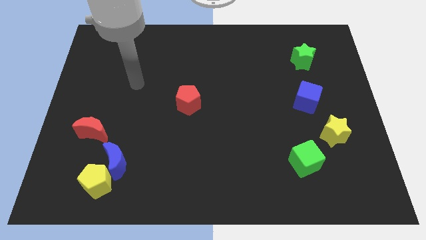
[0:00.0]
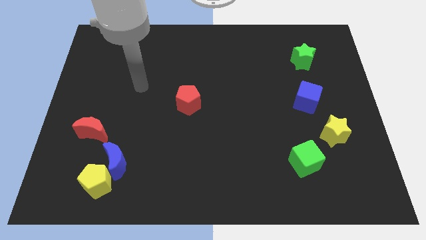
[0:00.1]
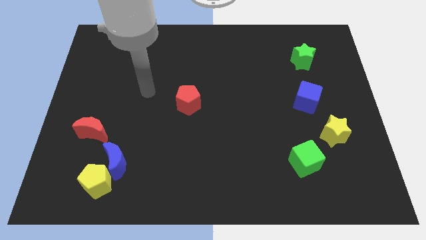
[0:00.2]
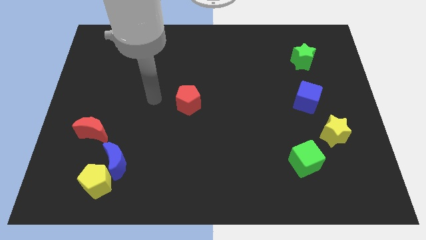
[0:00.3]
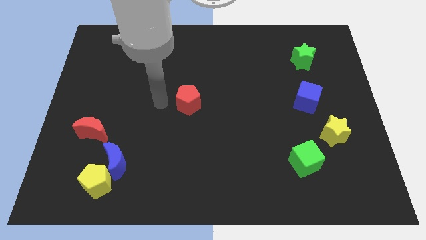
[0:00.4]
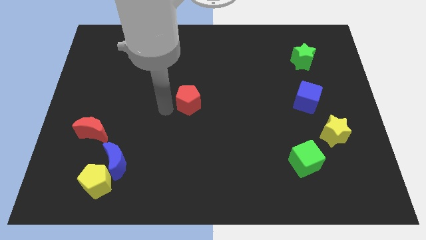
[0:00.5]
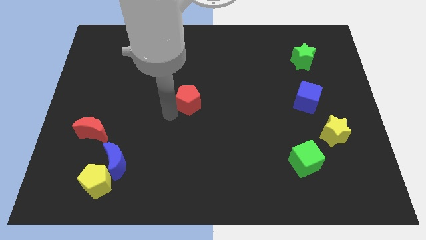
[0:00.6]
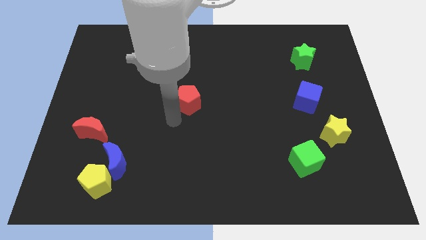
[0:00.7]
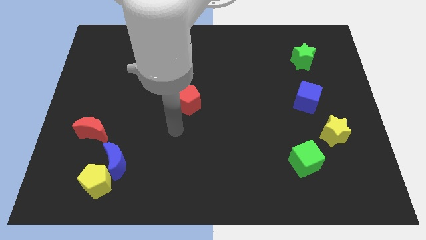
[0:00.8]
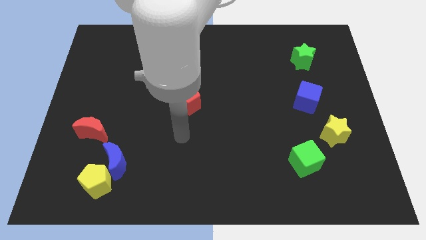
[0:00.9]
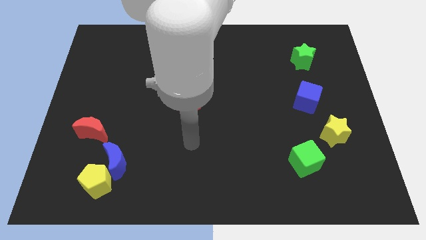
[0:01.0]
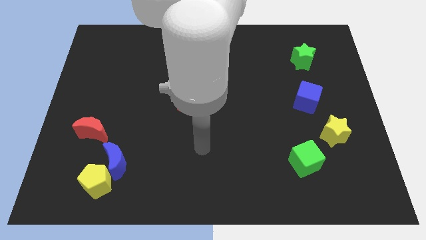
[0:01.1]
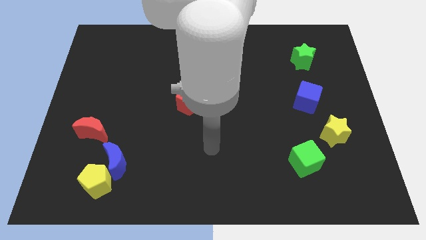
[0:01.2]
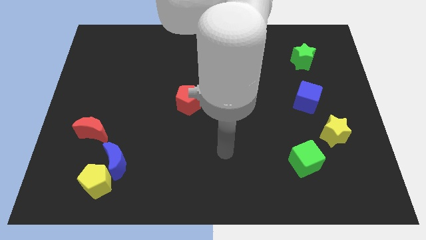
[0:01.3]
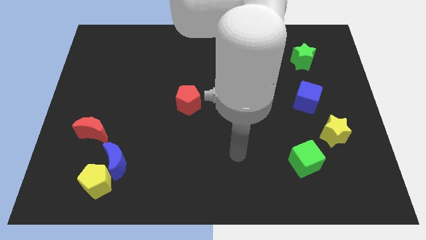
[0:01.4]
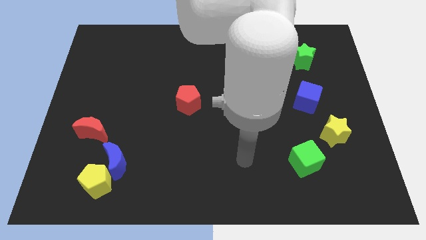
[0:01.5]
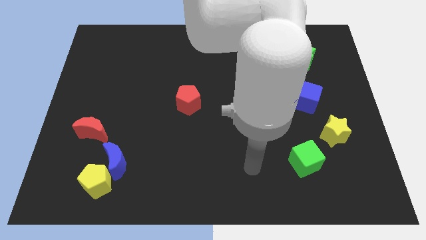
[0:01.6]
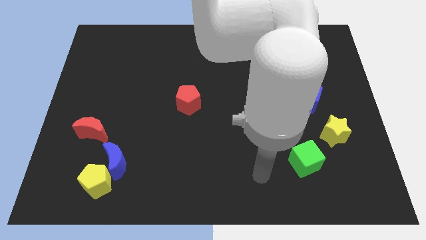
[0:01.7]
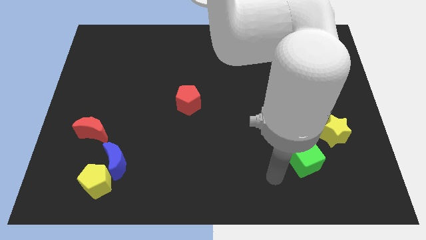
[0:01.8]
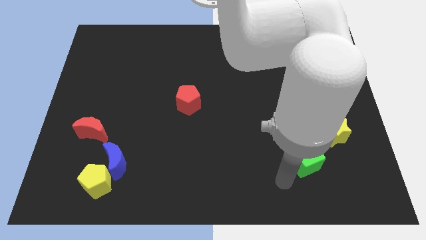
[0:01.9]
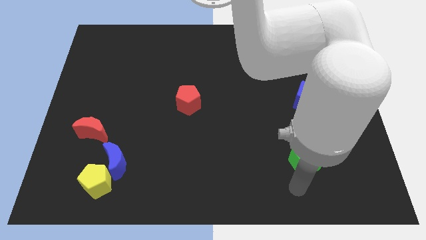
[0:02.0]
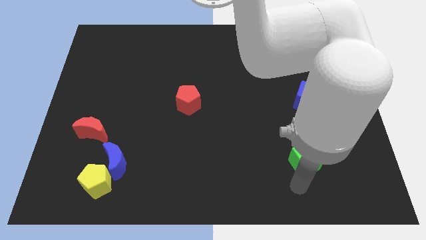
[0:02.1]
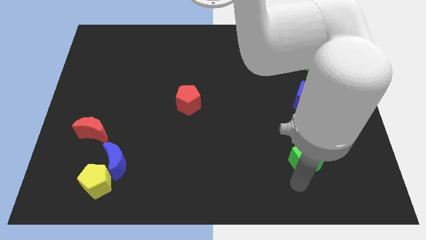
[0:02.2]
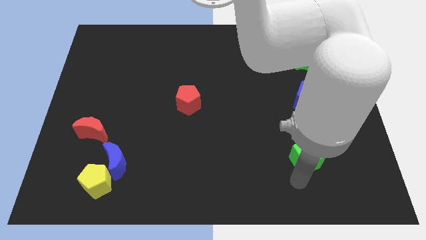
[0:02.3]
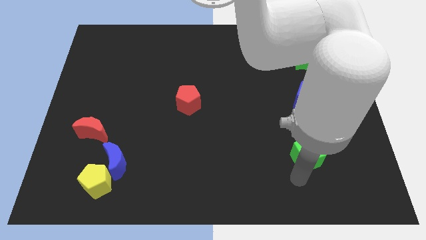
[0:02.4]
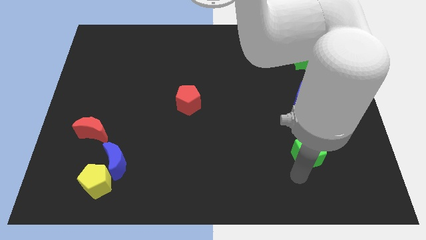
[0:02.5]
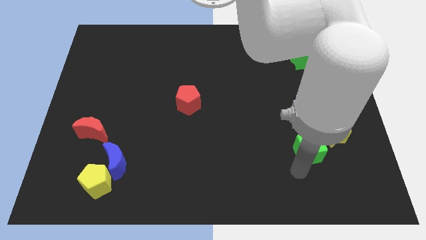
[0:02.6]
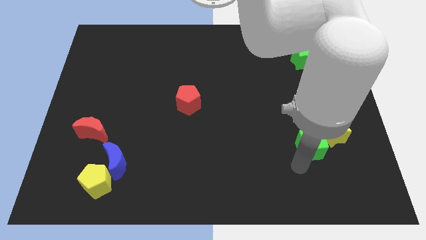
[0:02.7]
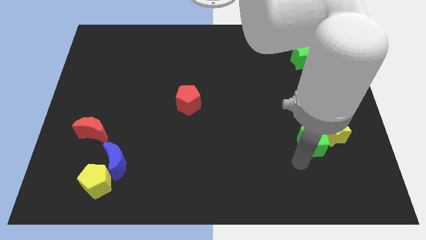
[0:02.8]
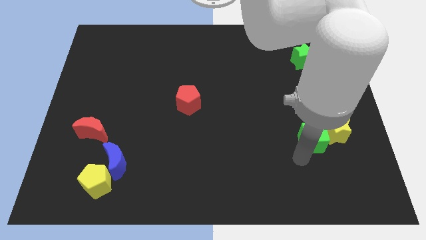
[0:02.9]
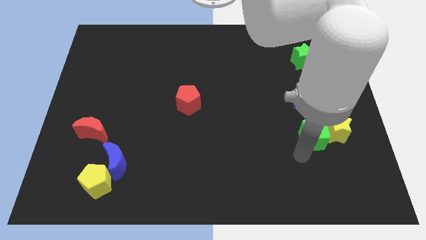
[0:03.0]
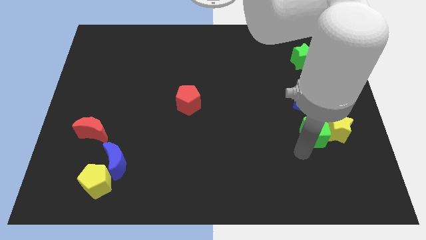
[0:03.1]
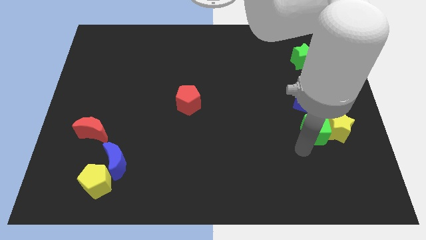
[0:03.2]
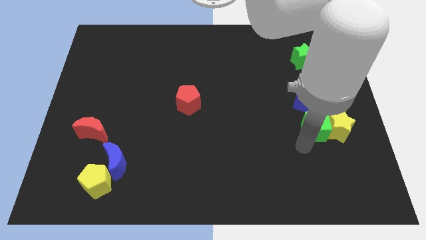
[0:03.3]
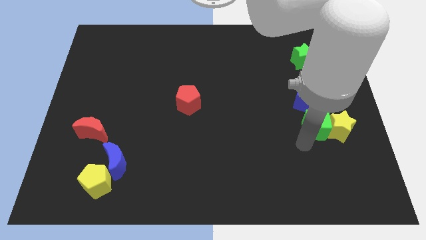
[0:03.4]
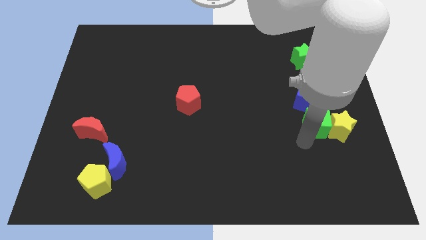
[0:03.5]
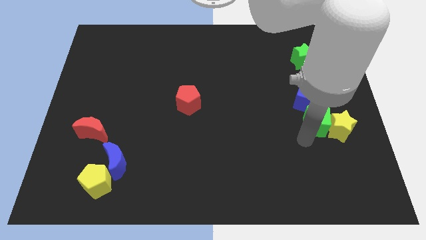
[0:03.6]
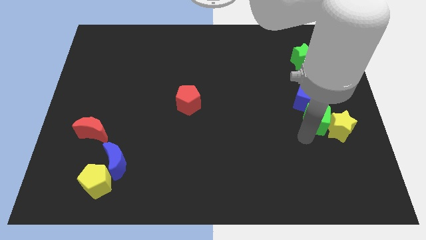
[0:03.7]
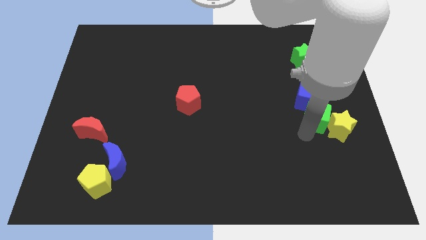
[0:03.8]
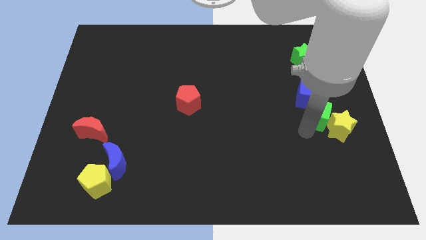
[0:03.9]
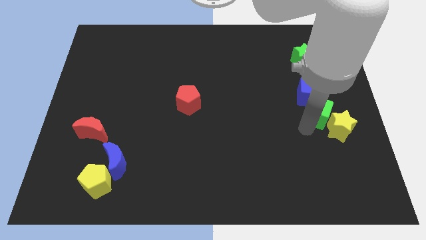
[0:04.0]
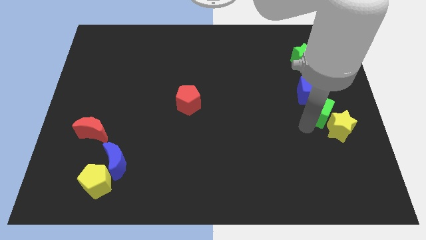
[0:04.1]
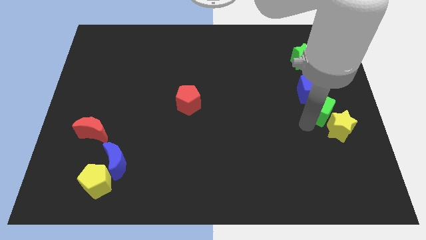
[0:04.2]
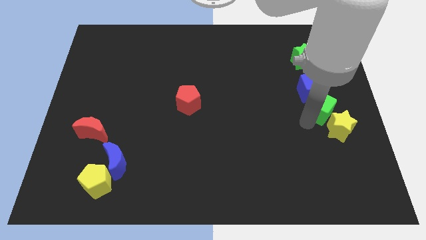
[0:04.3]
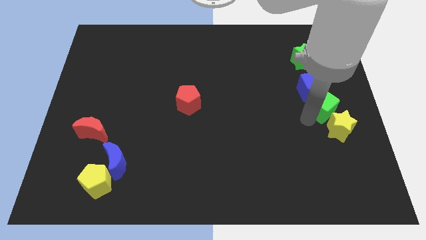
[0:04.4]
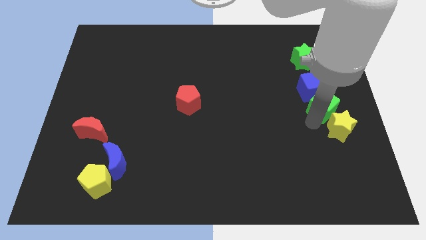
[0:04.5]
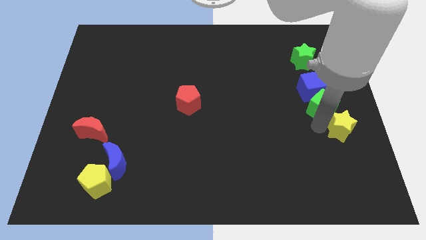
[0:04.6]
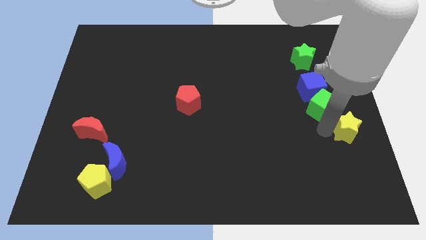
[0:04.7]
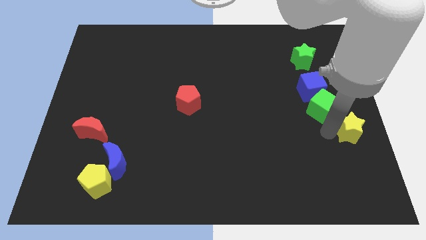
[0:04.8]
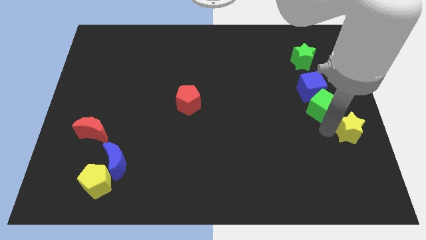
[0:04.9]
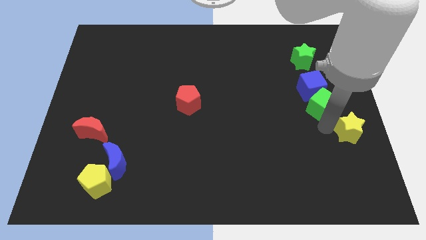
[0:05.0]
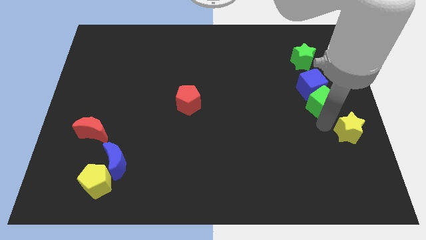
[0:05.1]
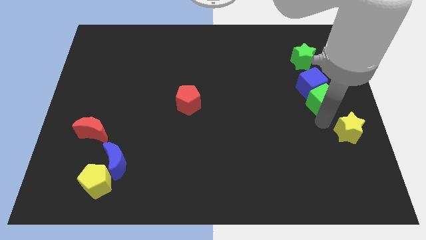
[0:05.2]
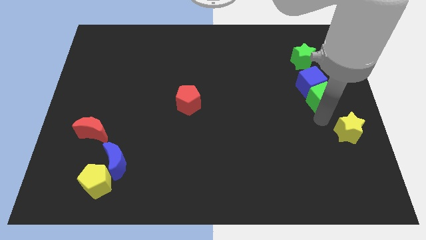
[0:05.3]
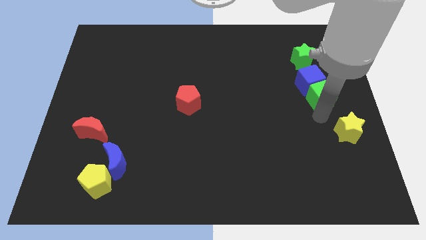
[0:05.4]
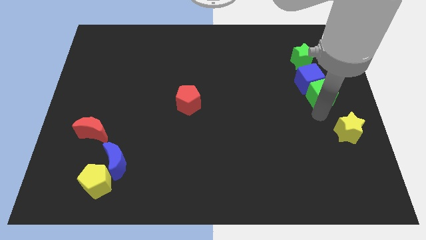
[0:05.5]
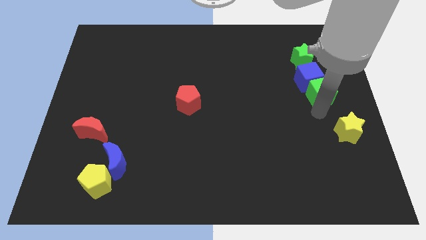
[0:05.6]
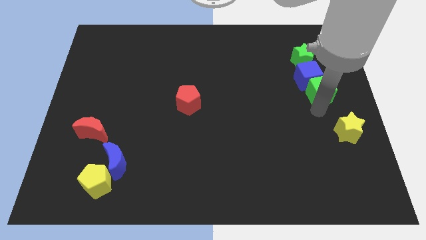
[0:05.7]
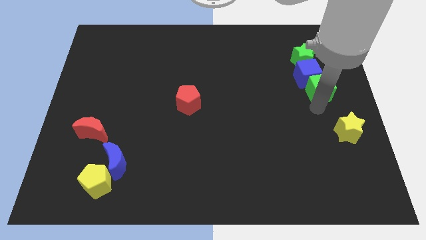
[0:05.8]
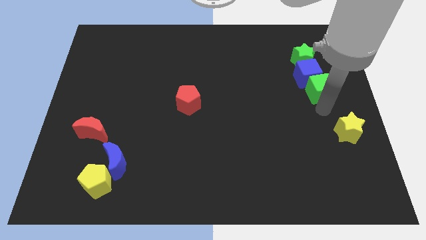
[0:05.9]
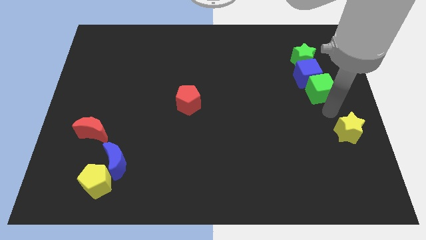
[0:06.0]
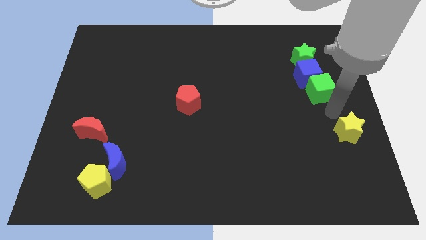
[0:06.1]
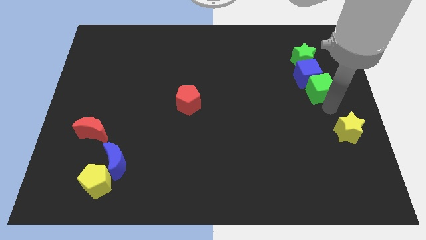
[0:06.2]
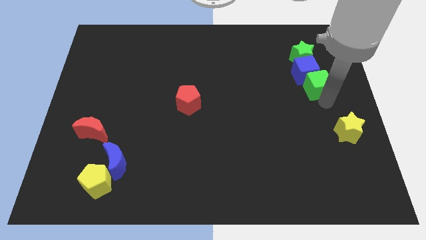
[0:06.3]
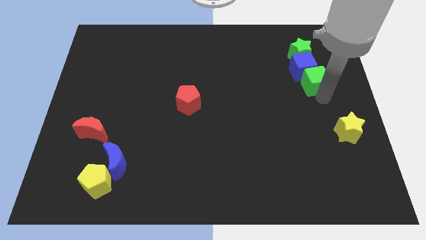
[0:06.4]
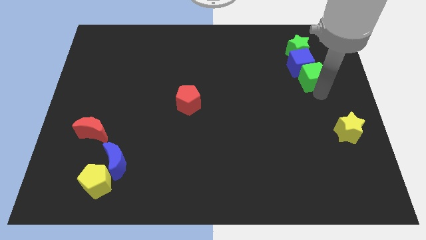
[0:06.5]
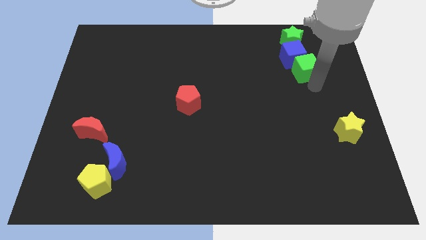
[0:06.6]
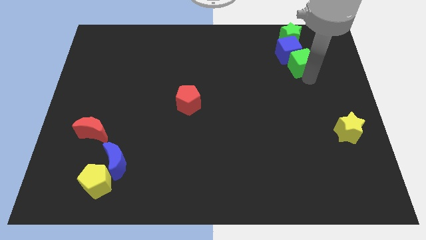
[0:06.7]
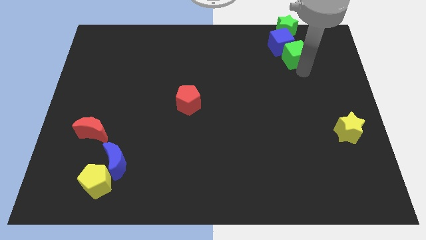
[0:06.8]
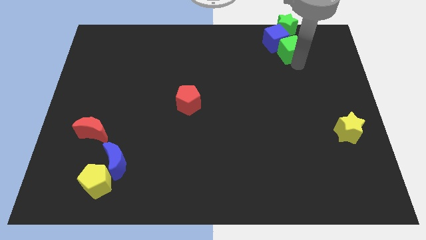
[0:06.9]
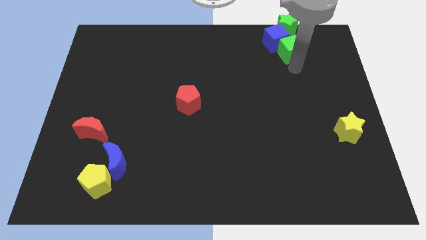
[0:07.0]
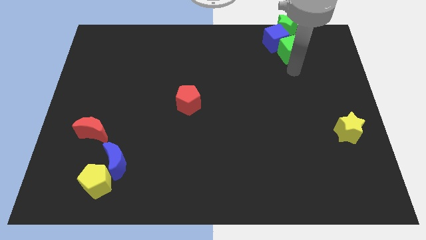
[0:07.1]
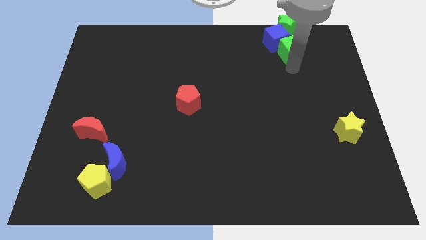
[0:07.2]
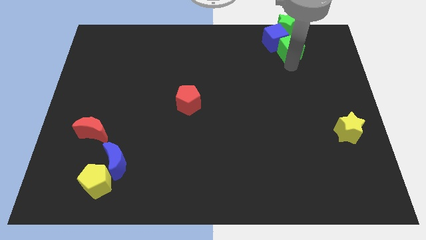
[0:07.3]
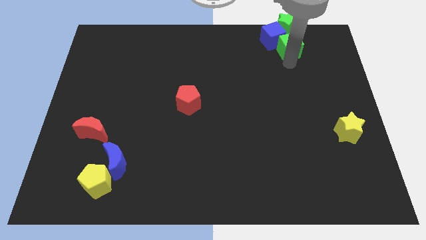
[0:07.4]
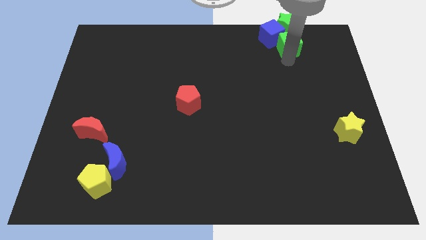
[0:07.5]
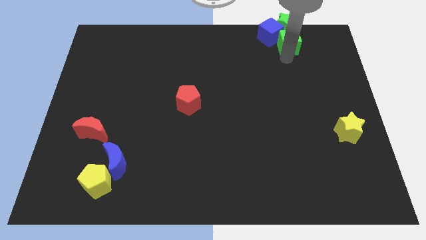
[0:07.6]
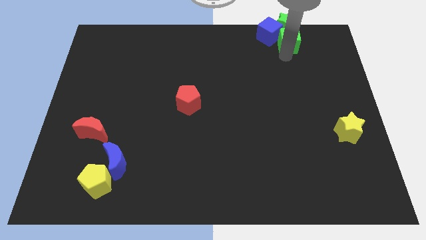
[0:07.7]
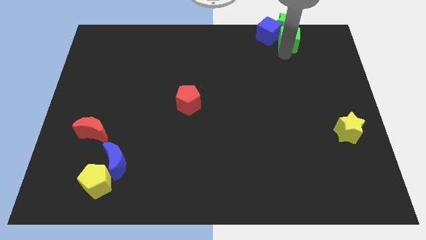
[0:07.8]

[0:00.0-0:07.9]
push the green cube next to the green star
